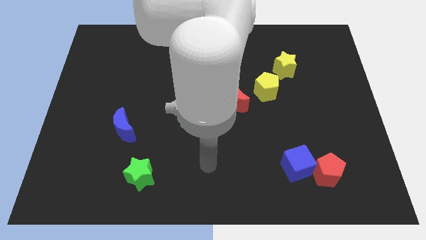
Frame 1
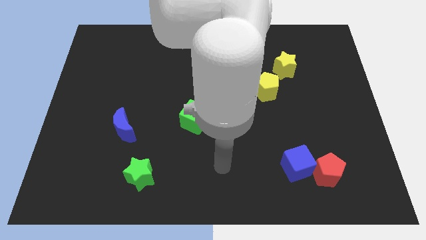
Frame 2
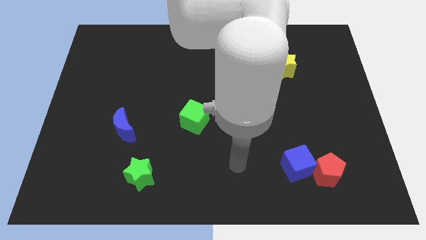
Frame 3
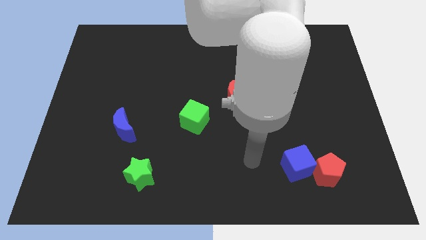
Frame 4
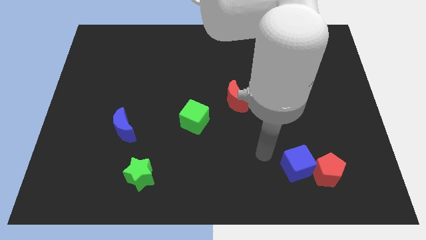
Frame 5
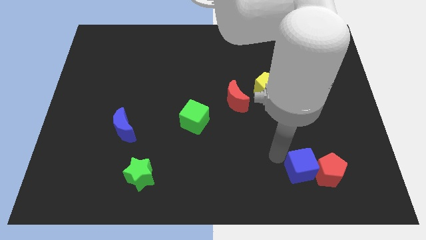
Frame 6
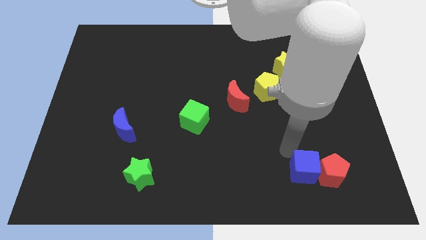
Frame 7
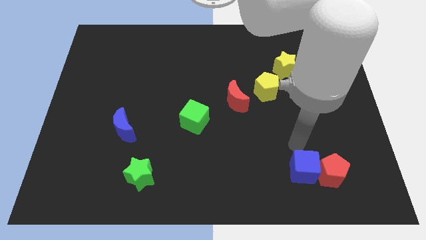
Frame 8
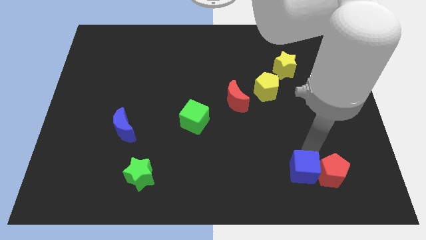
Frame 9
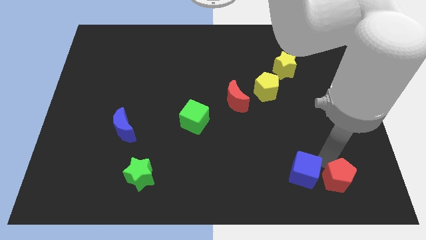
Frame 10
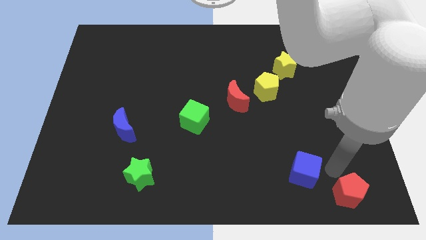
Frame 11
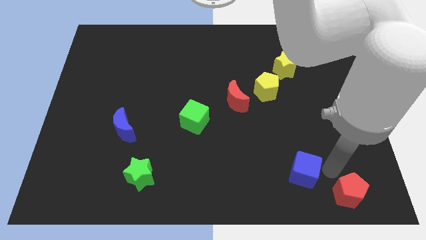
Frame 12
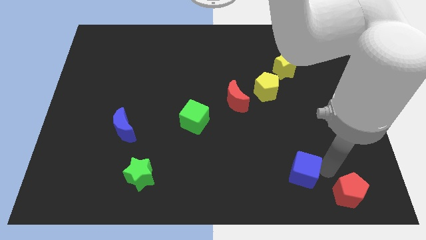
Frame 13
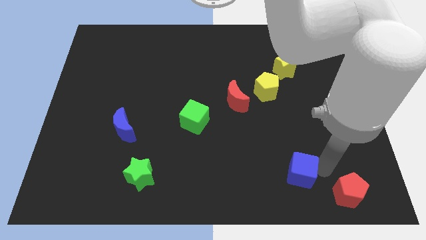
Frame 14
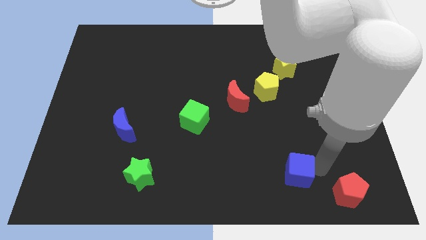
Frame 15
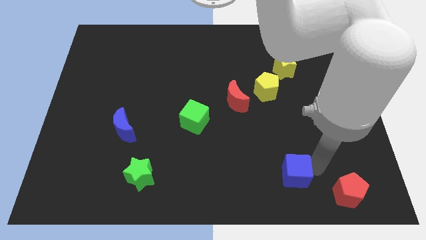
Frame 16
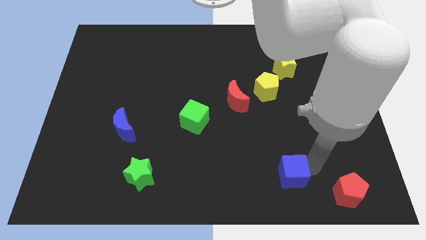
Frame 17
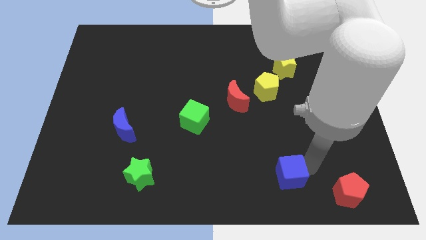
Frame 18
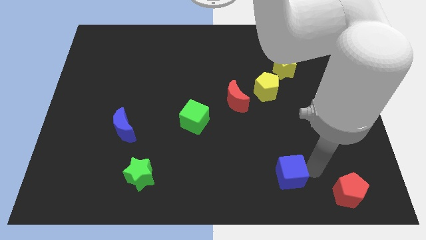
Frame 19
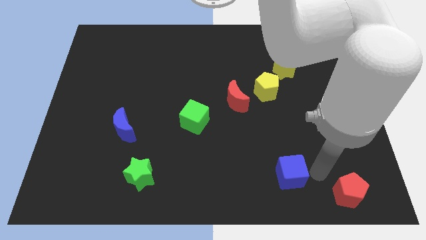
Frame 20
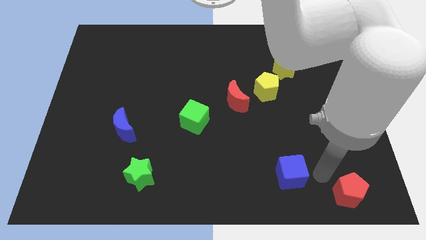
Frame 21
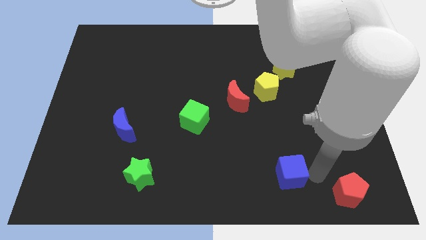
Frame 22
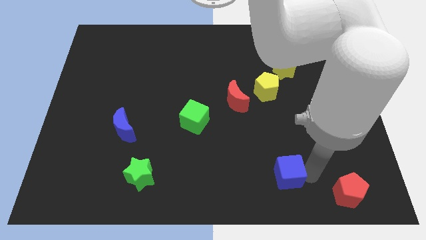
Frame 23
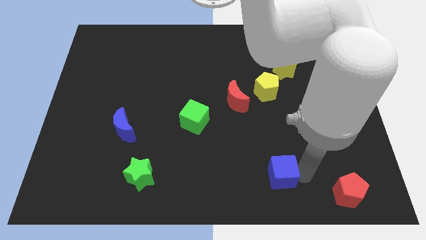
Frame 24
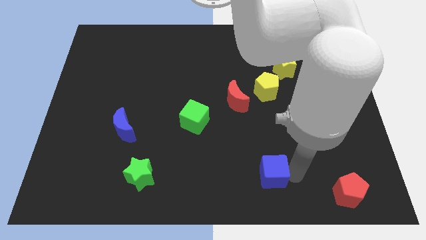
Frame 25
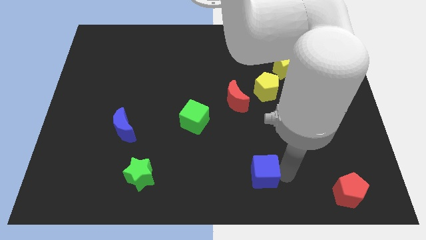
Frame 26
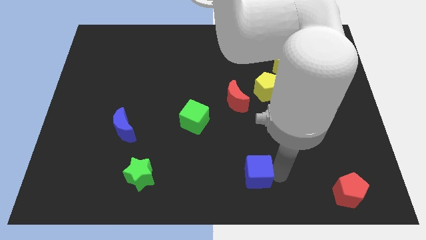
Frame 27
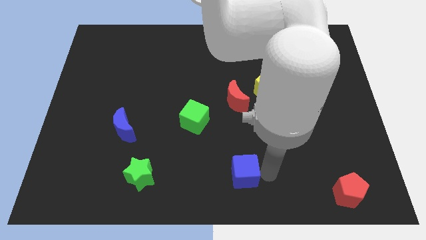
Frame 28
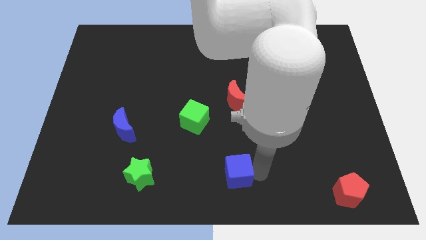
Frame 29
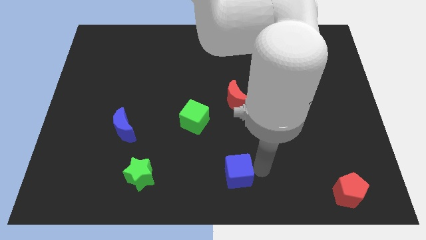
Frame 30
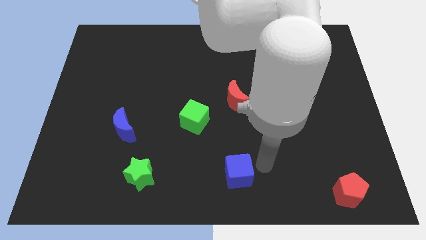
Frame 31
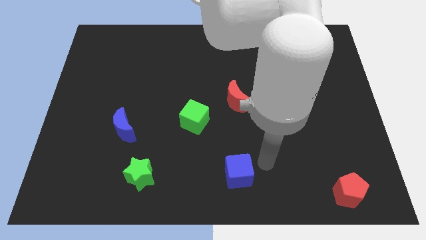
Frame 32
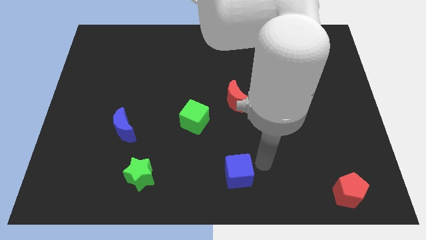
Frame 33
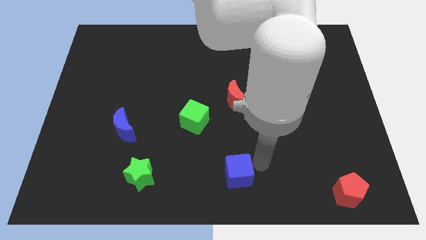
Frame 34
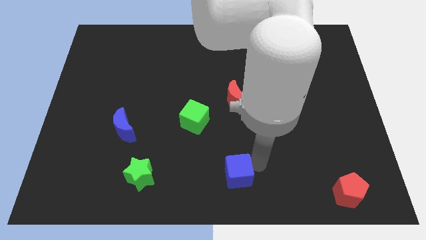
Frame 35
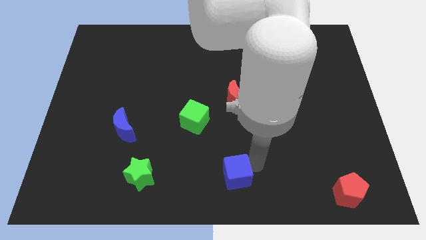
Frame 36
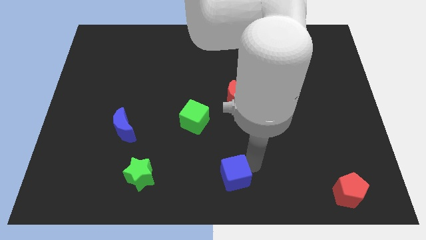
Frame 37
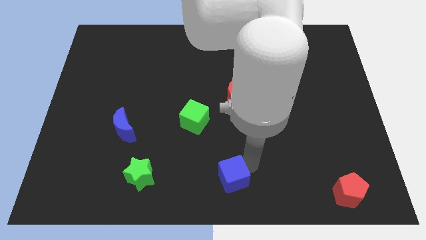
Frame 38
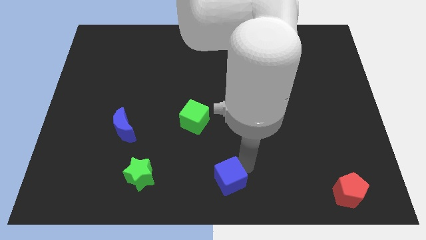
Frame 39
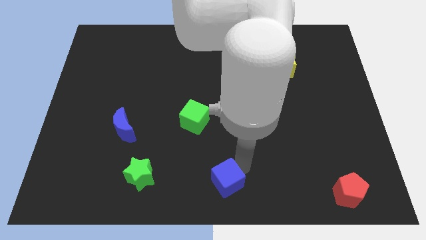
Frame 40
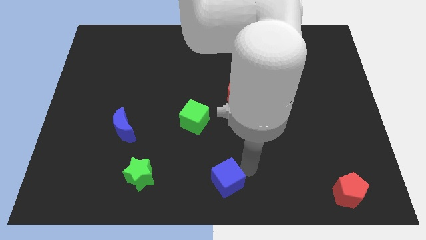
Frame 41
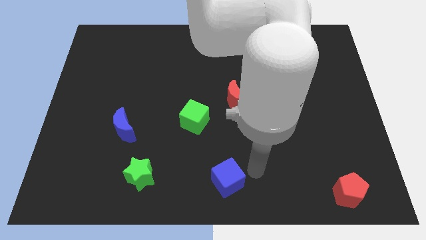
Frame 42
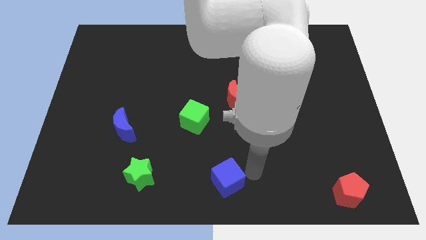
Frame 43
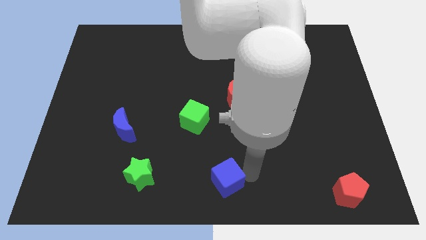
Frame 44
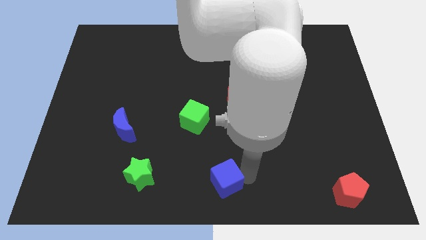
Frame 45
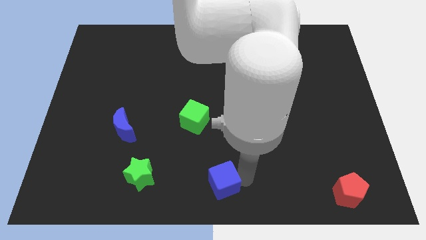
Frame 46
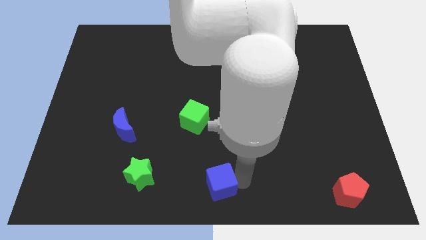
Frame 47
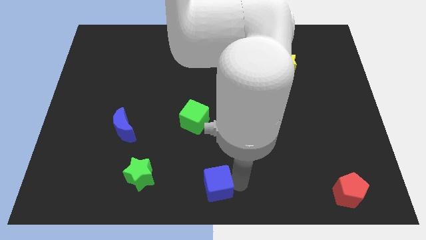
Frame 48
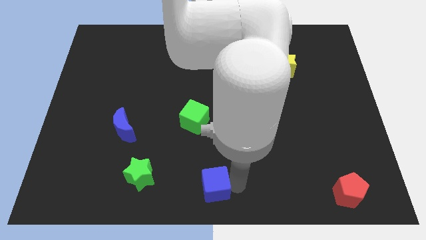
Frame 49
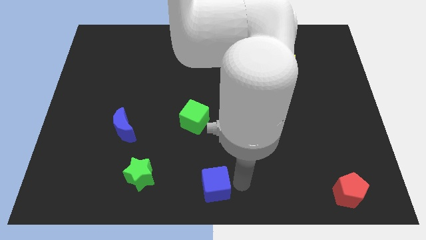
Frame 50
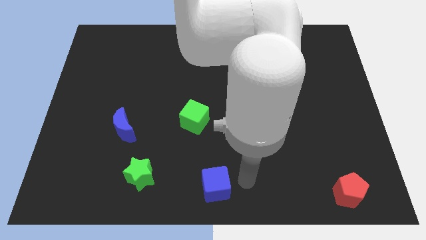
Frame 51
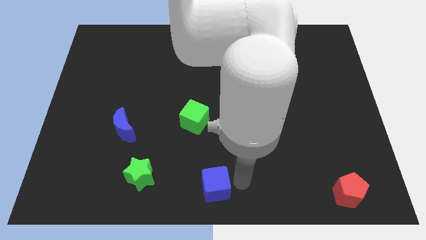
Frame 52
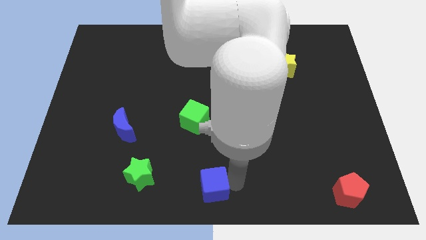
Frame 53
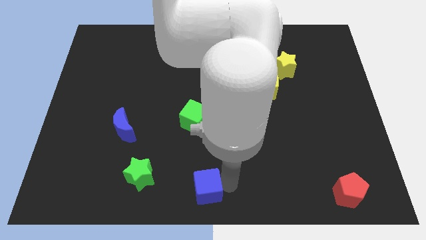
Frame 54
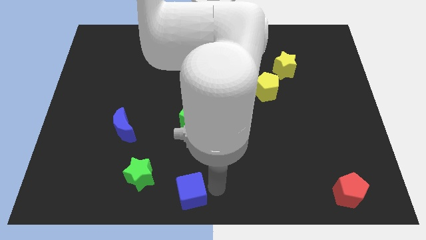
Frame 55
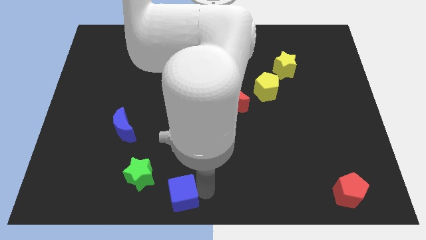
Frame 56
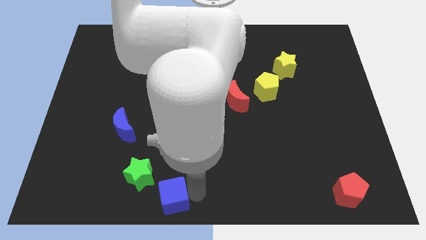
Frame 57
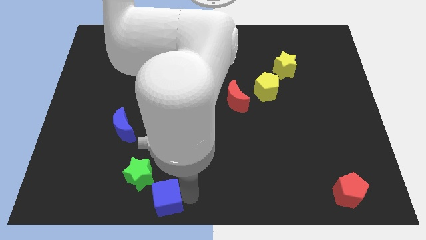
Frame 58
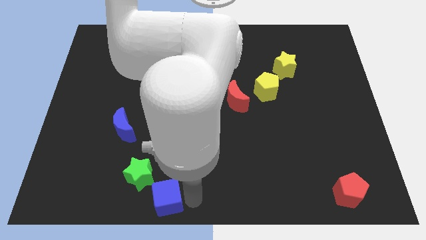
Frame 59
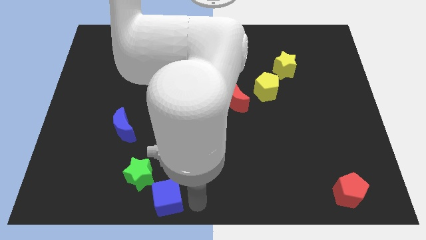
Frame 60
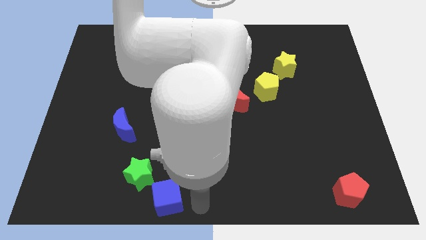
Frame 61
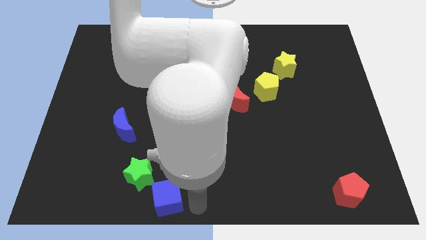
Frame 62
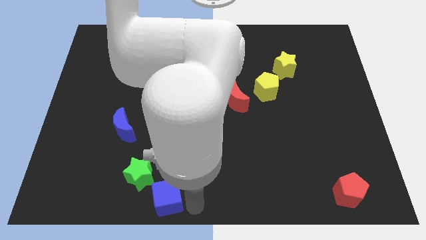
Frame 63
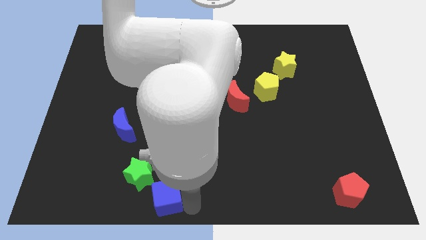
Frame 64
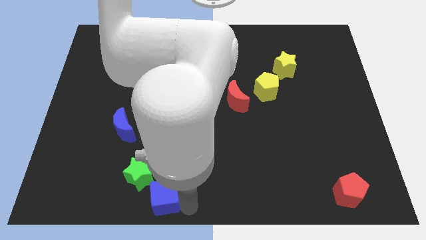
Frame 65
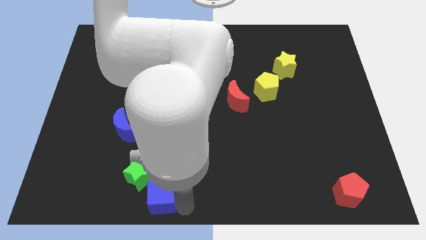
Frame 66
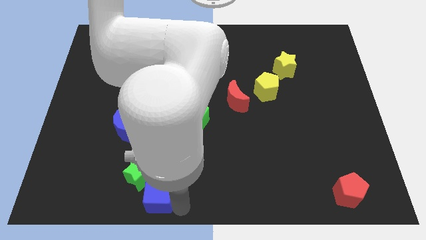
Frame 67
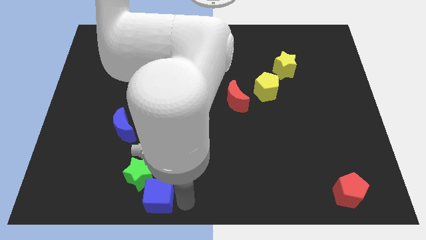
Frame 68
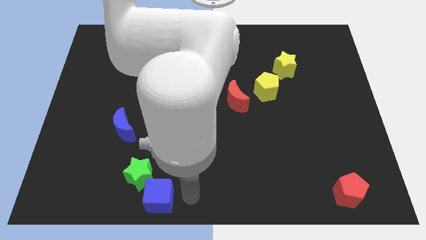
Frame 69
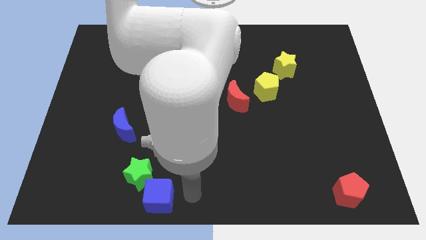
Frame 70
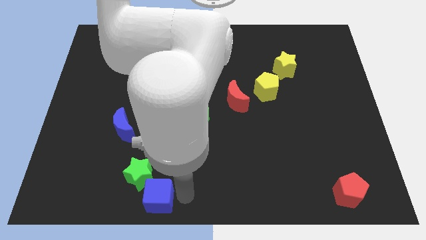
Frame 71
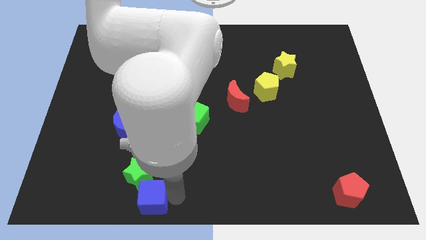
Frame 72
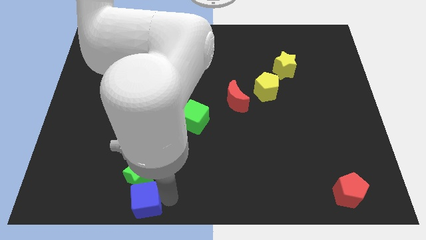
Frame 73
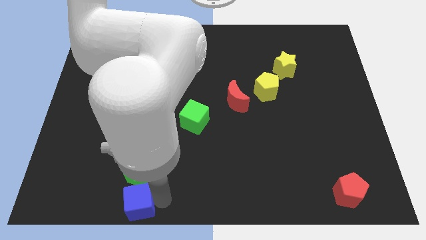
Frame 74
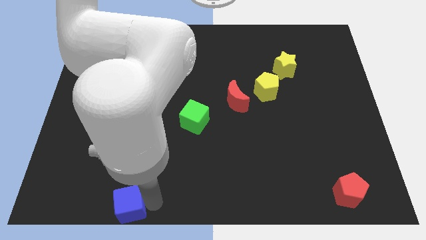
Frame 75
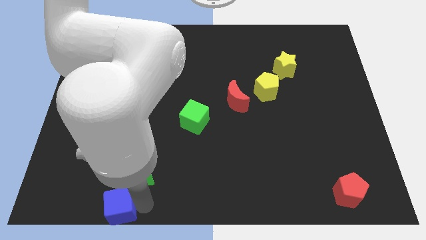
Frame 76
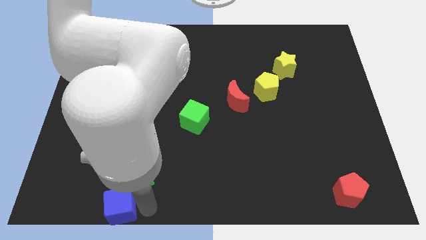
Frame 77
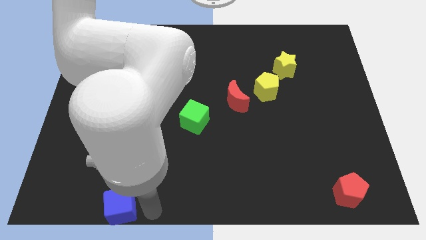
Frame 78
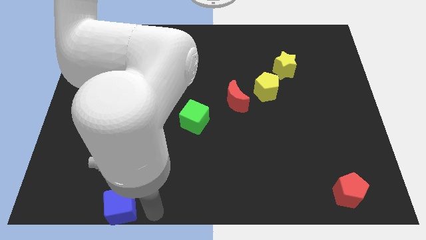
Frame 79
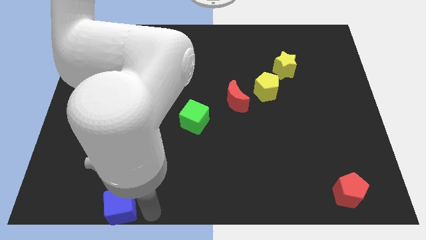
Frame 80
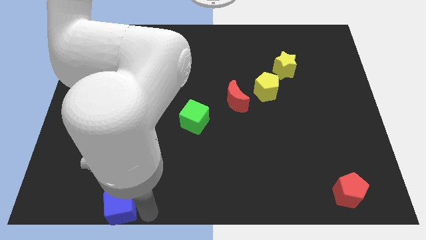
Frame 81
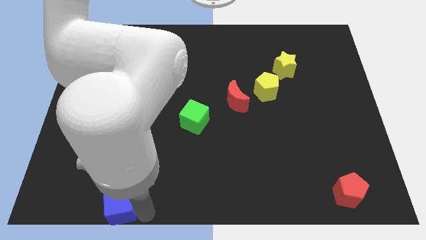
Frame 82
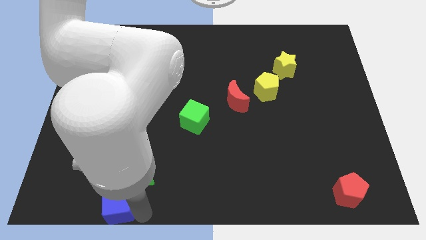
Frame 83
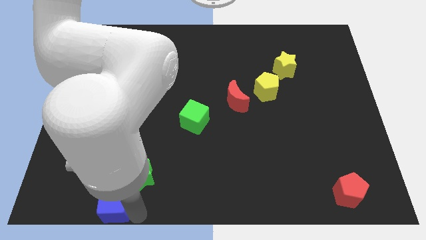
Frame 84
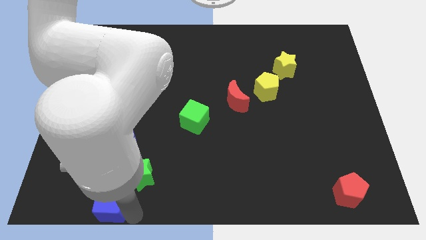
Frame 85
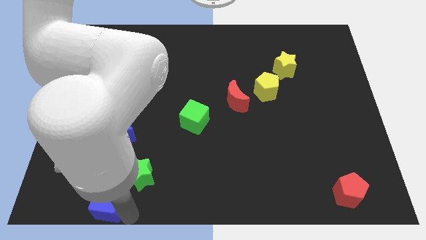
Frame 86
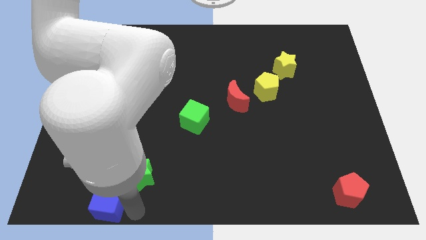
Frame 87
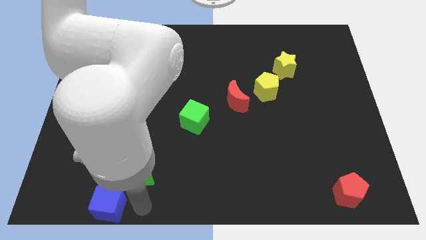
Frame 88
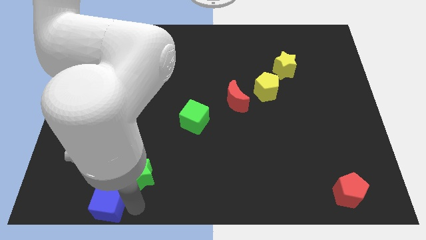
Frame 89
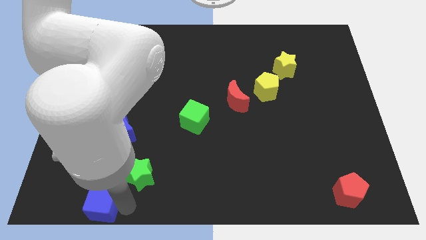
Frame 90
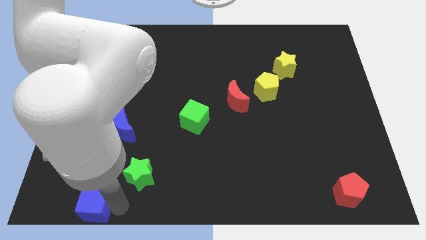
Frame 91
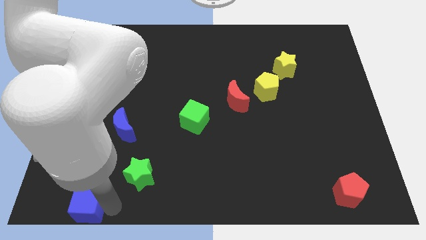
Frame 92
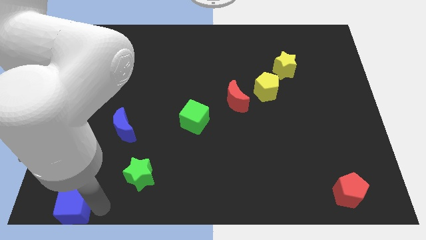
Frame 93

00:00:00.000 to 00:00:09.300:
put the blue cube to the lower left corner
